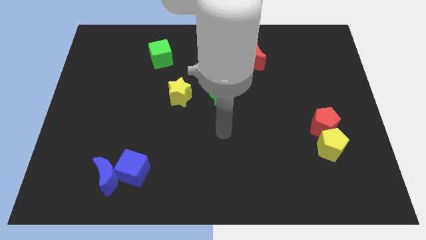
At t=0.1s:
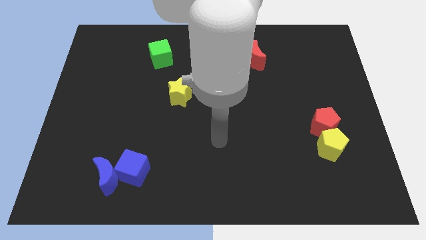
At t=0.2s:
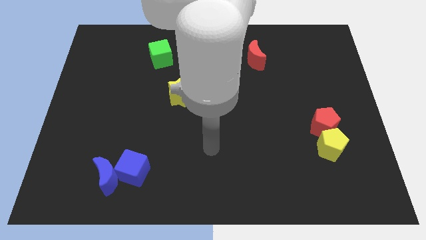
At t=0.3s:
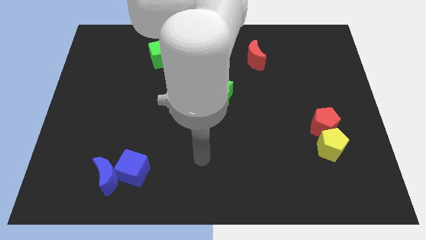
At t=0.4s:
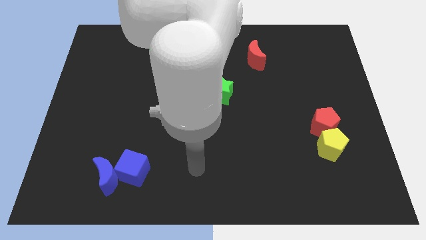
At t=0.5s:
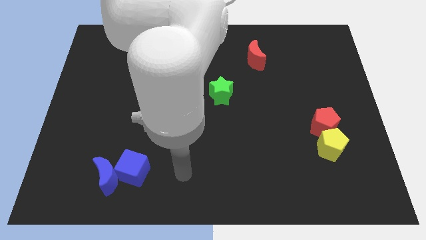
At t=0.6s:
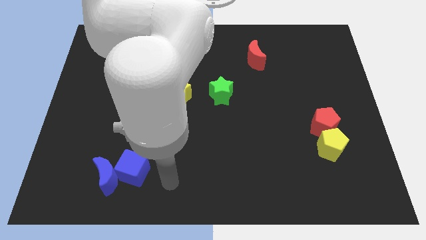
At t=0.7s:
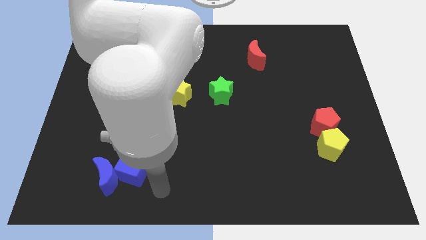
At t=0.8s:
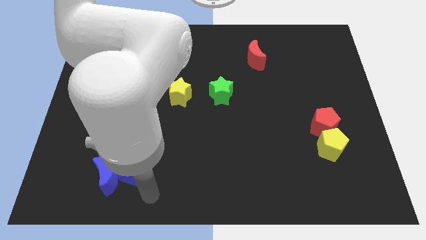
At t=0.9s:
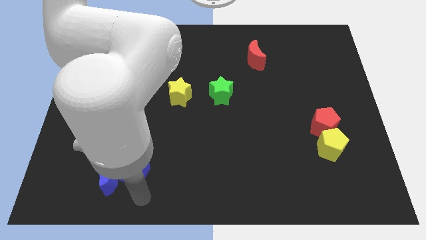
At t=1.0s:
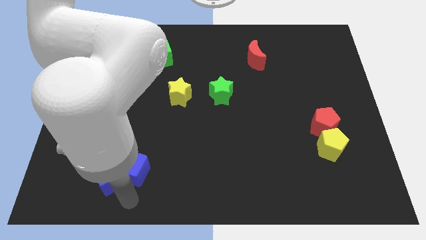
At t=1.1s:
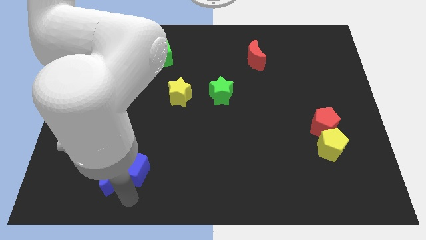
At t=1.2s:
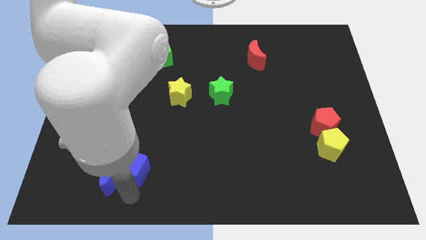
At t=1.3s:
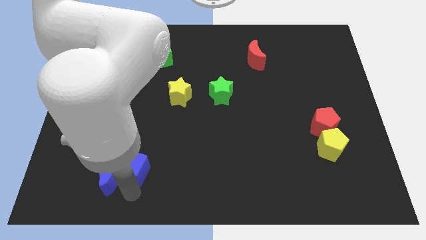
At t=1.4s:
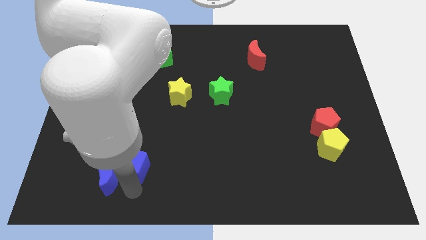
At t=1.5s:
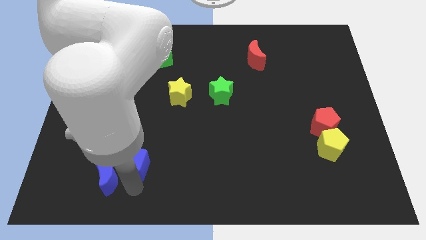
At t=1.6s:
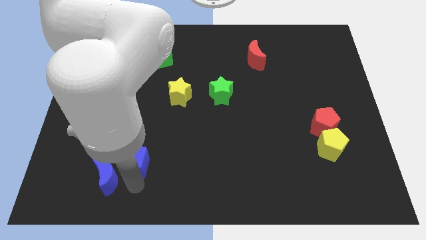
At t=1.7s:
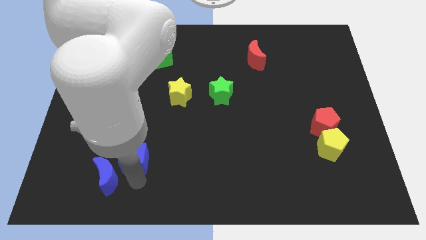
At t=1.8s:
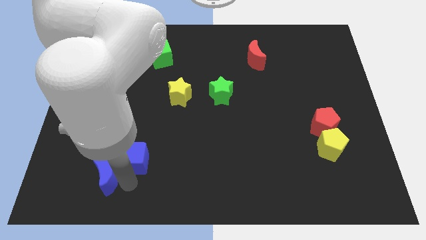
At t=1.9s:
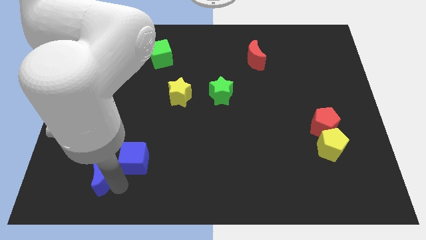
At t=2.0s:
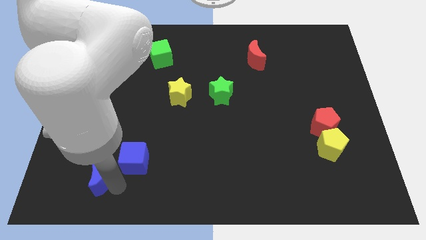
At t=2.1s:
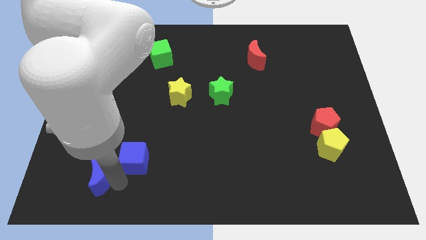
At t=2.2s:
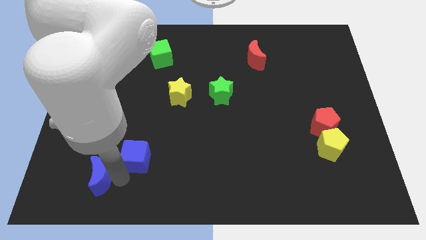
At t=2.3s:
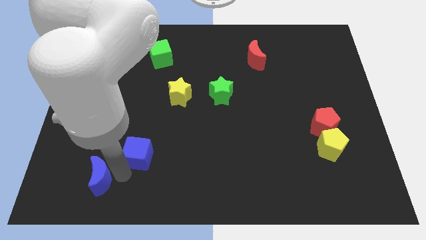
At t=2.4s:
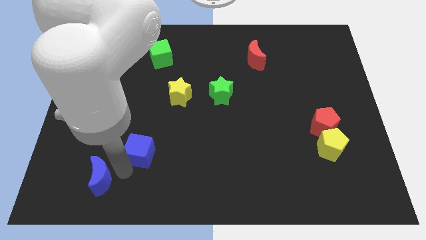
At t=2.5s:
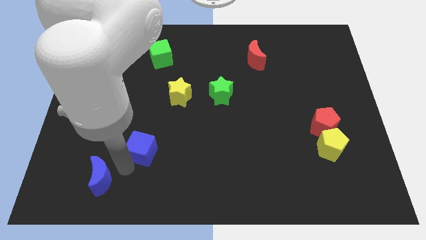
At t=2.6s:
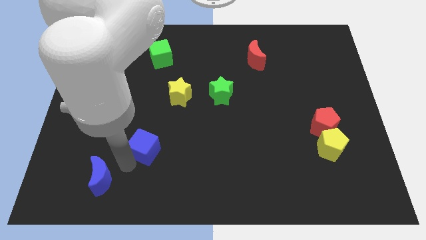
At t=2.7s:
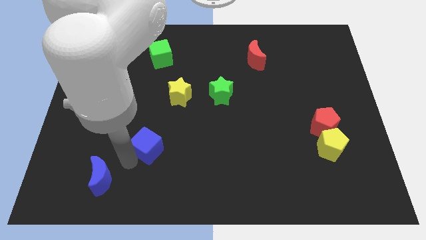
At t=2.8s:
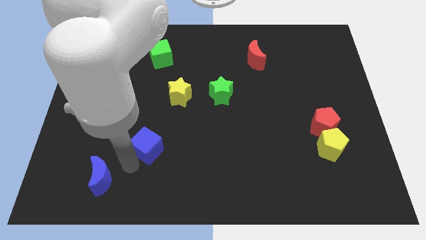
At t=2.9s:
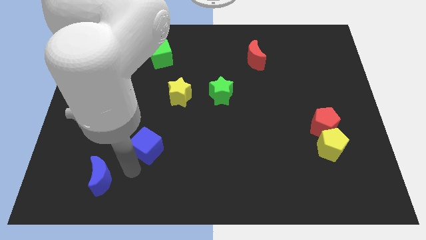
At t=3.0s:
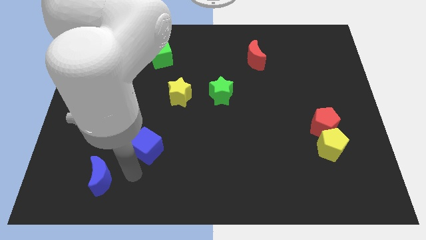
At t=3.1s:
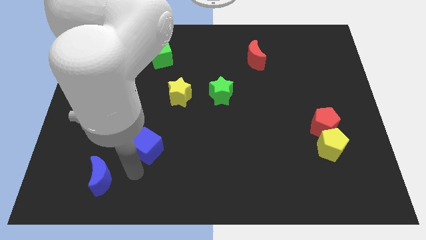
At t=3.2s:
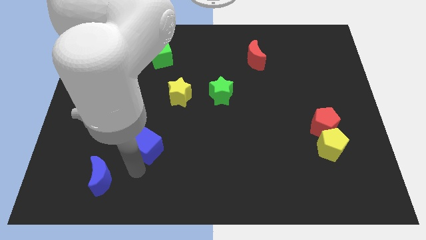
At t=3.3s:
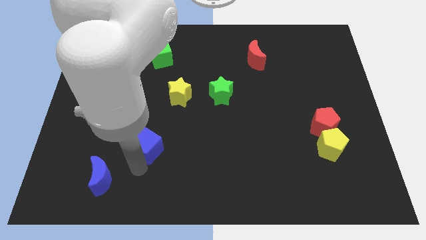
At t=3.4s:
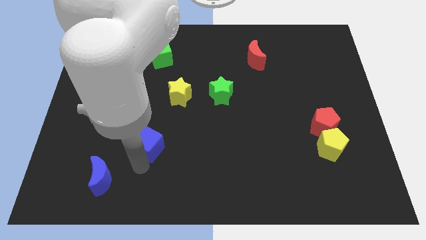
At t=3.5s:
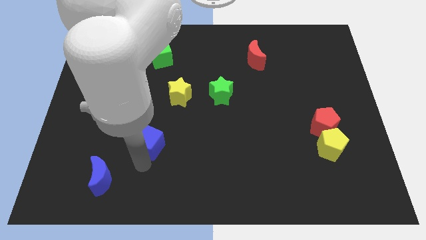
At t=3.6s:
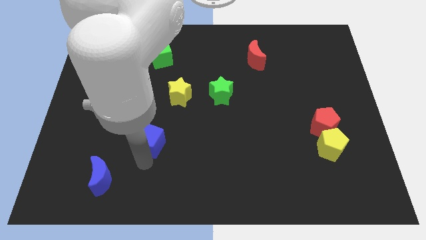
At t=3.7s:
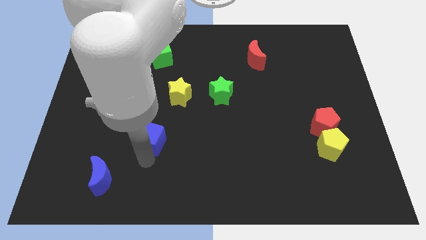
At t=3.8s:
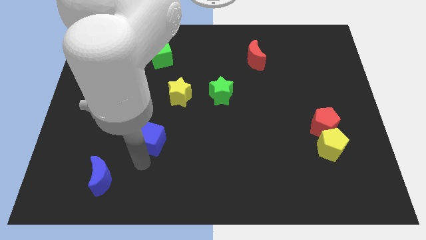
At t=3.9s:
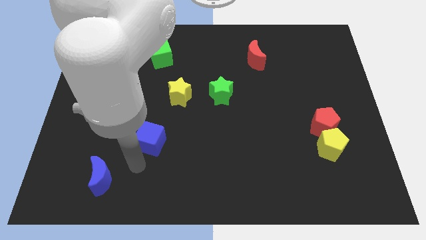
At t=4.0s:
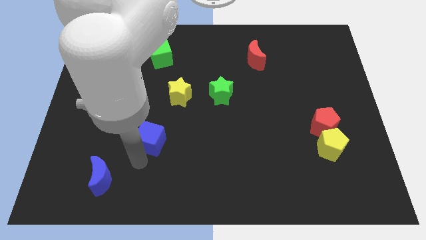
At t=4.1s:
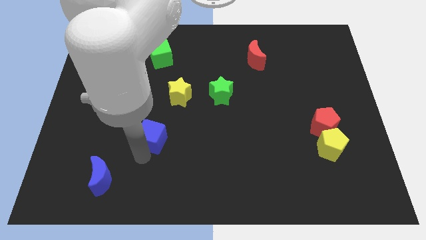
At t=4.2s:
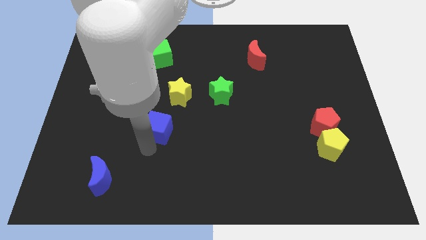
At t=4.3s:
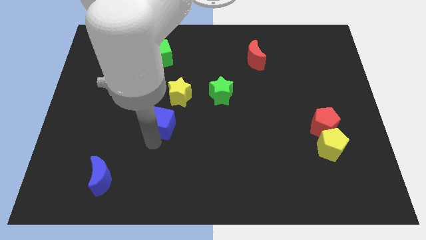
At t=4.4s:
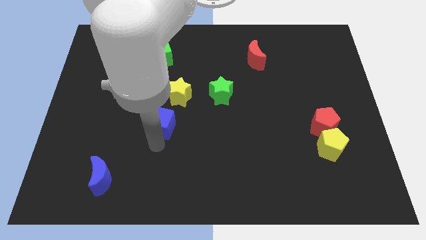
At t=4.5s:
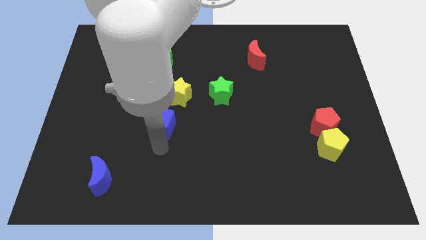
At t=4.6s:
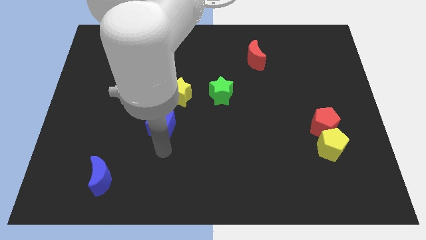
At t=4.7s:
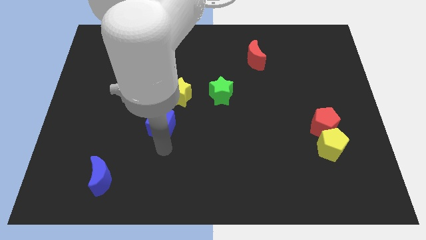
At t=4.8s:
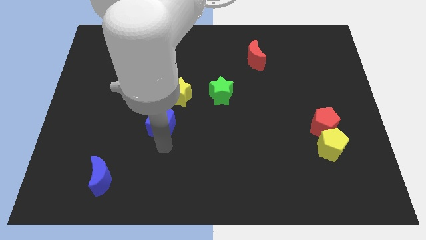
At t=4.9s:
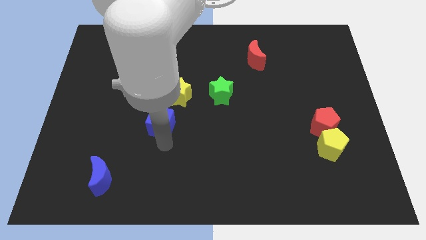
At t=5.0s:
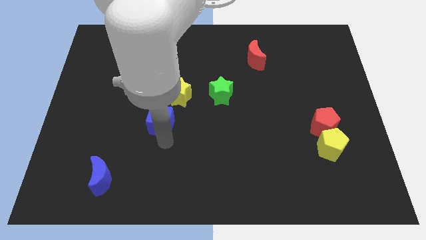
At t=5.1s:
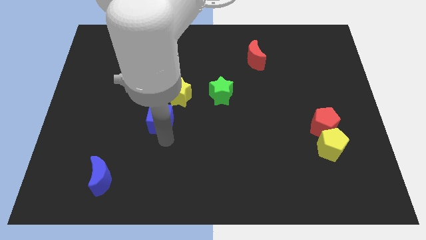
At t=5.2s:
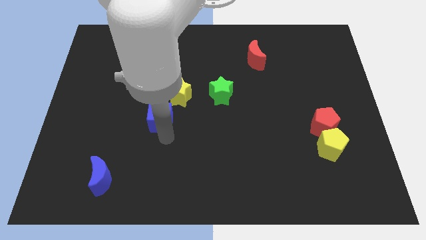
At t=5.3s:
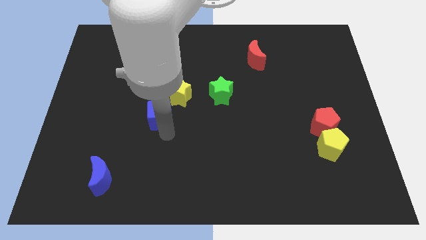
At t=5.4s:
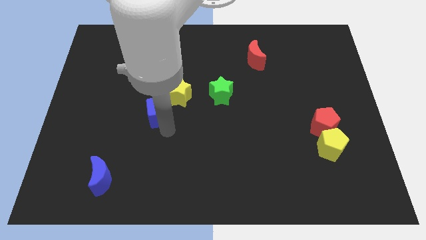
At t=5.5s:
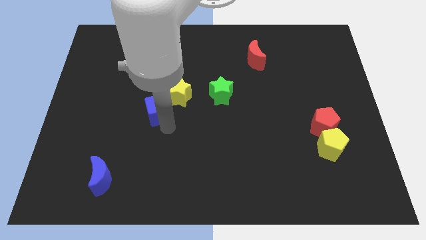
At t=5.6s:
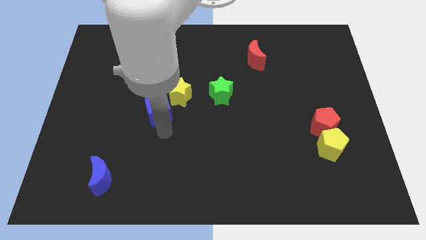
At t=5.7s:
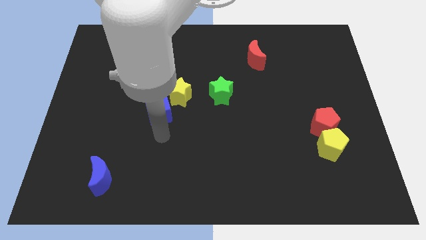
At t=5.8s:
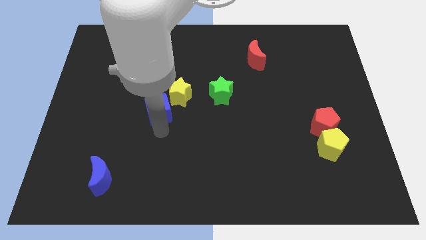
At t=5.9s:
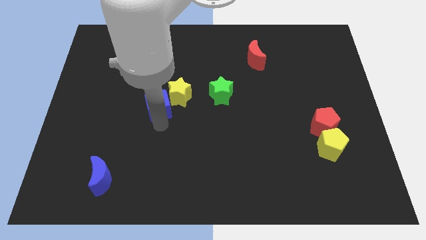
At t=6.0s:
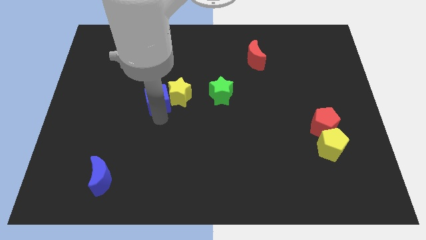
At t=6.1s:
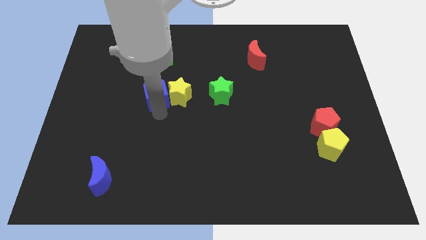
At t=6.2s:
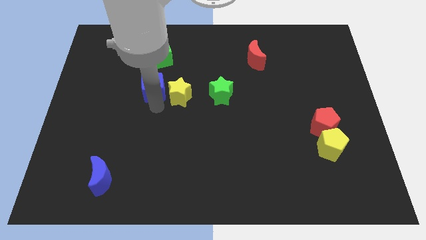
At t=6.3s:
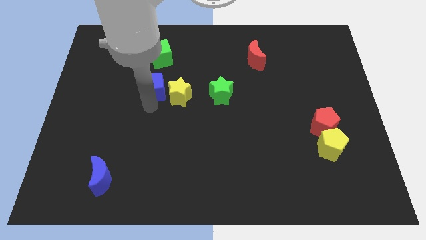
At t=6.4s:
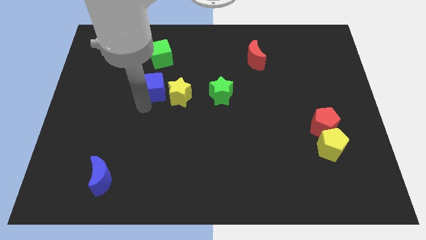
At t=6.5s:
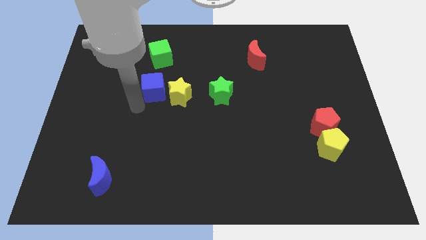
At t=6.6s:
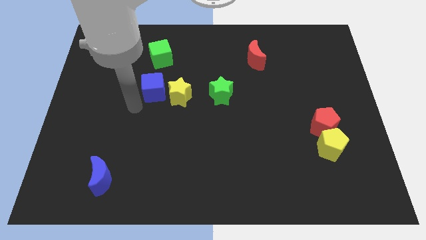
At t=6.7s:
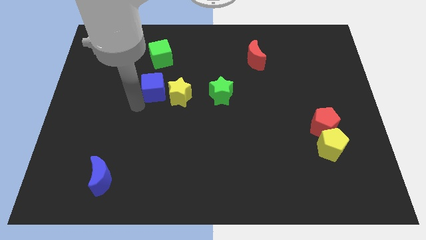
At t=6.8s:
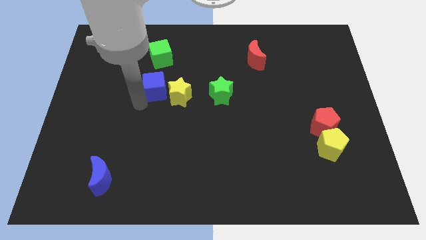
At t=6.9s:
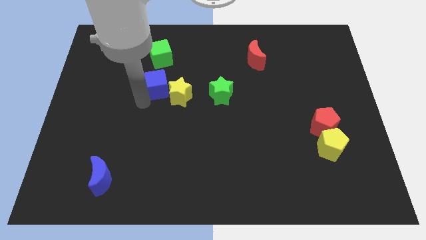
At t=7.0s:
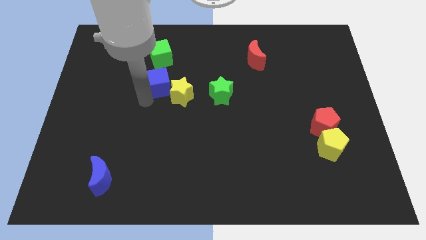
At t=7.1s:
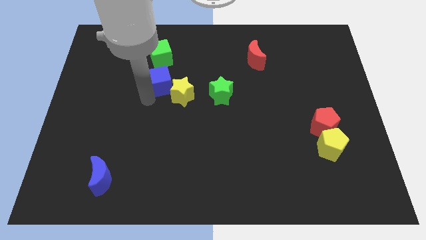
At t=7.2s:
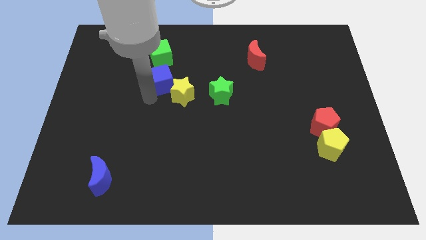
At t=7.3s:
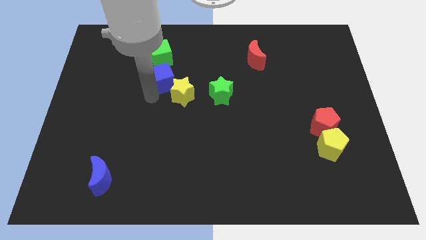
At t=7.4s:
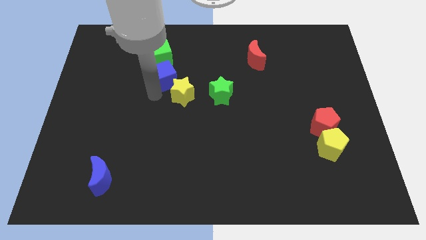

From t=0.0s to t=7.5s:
put the blue cube to the top side of the yellow star
